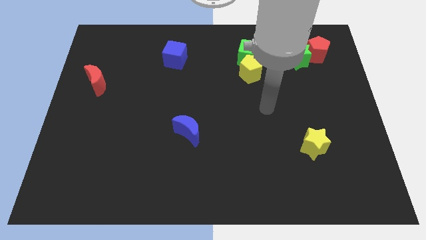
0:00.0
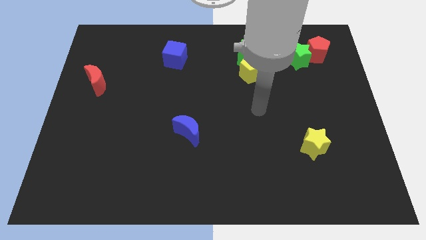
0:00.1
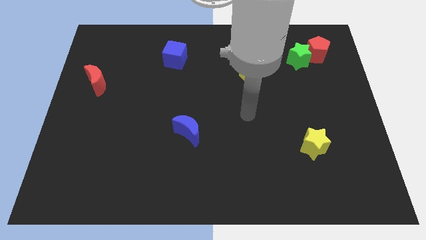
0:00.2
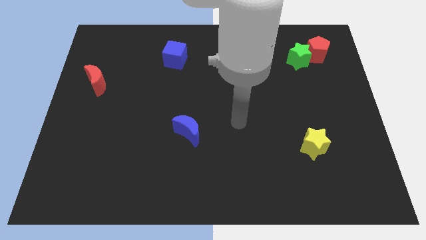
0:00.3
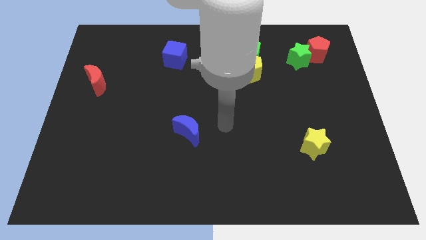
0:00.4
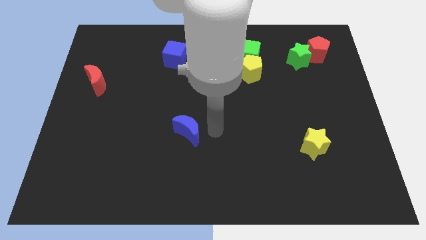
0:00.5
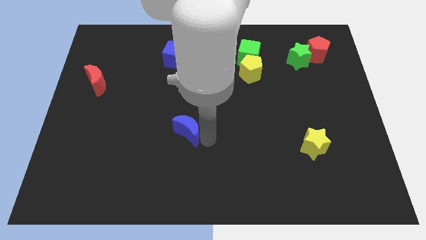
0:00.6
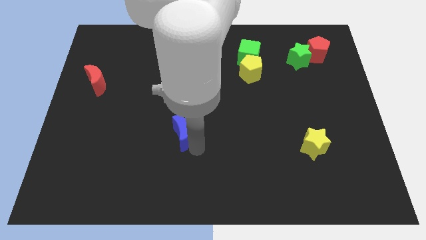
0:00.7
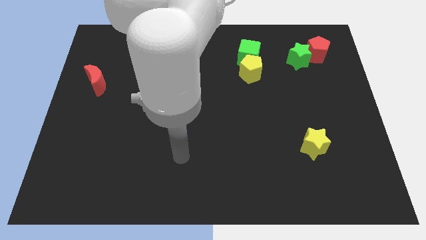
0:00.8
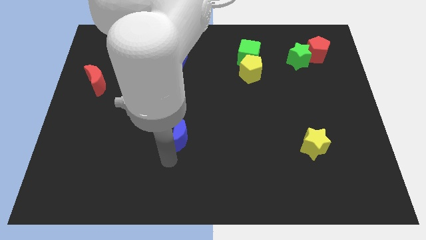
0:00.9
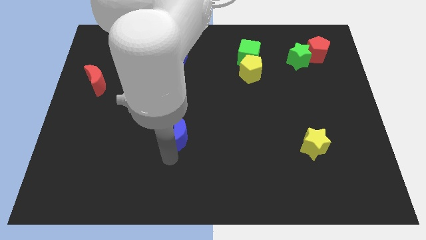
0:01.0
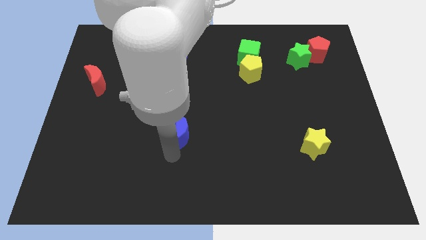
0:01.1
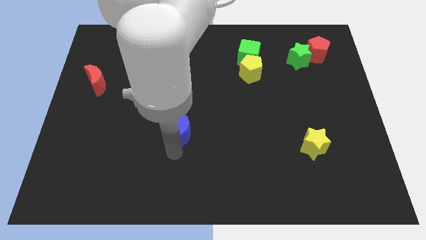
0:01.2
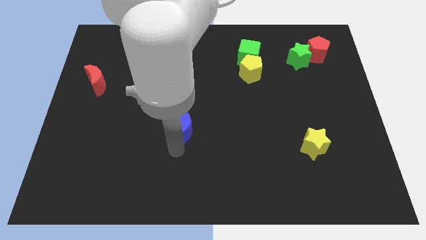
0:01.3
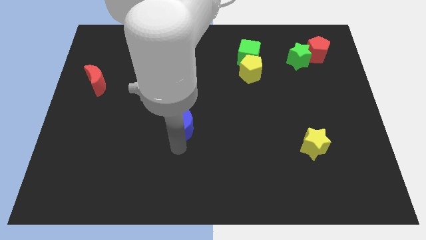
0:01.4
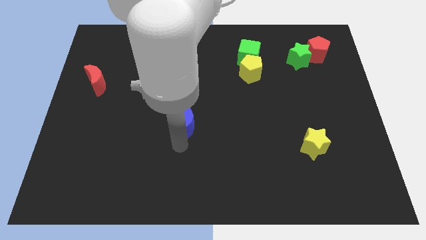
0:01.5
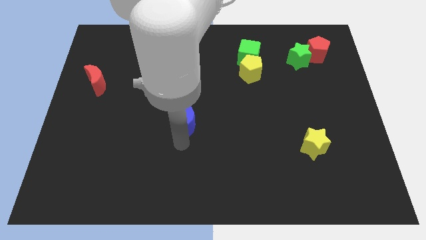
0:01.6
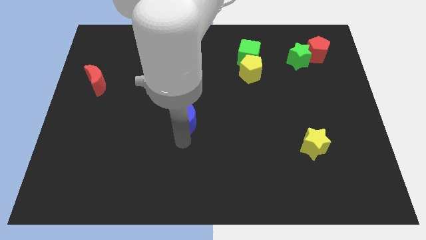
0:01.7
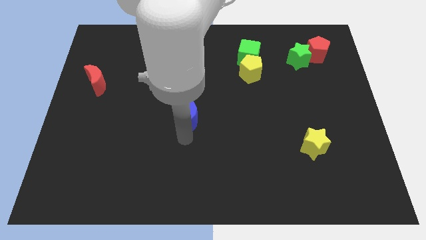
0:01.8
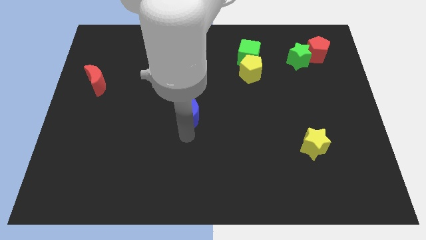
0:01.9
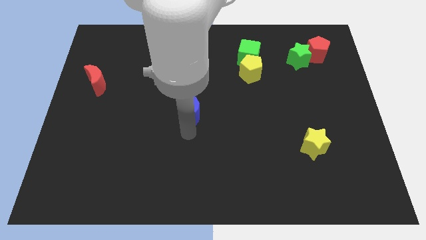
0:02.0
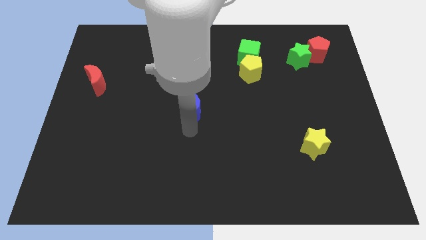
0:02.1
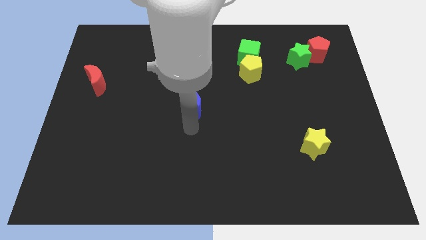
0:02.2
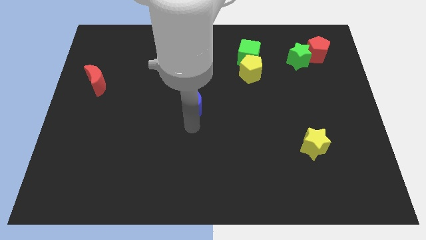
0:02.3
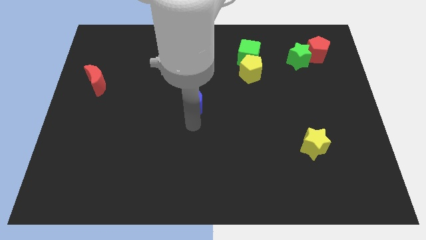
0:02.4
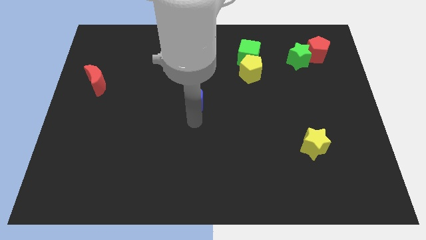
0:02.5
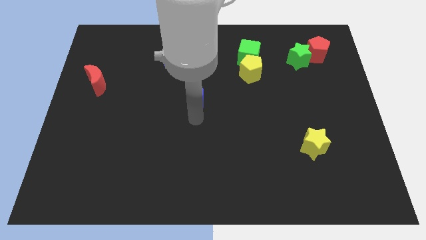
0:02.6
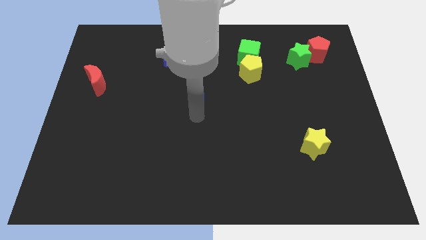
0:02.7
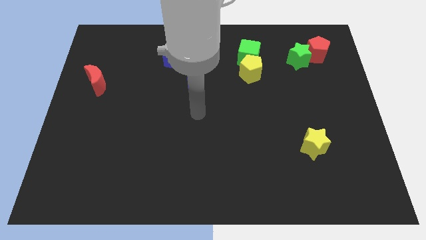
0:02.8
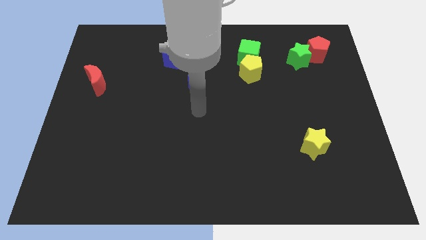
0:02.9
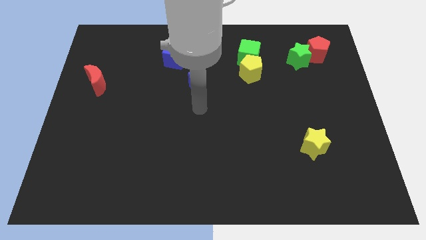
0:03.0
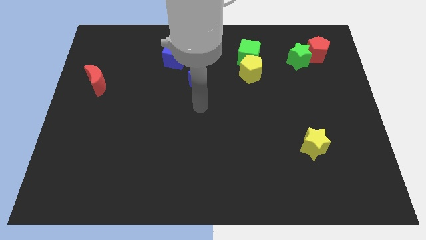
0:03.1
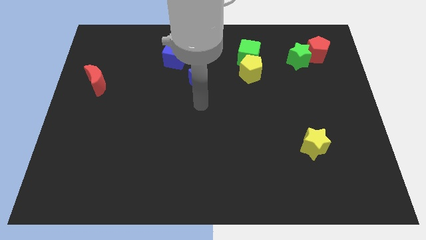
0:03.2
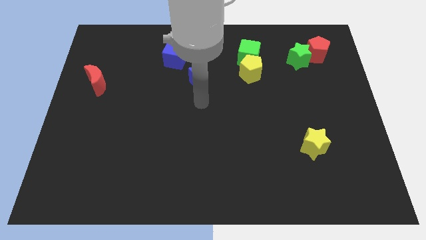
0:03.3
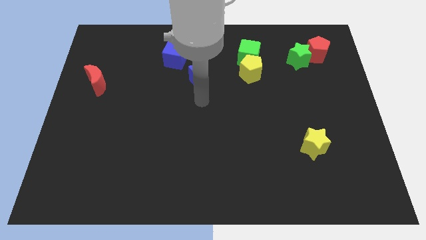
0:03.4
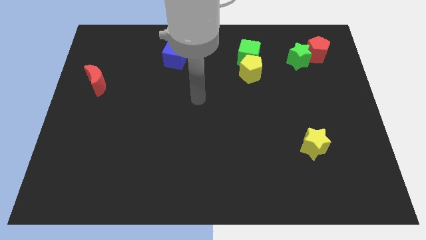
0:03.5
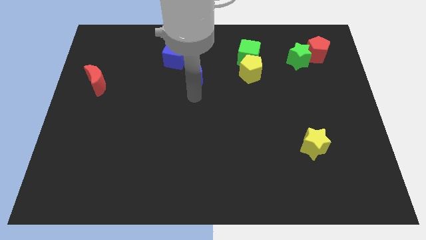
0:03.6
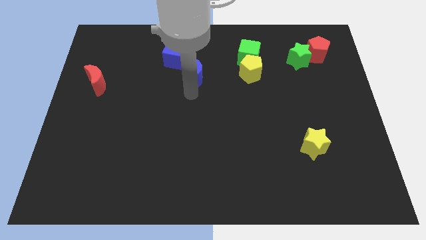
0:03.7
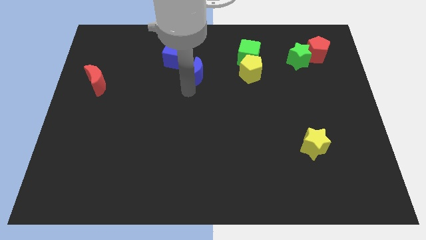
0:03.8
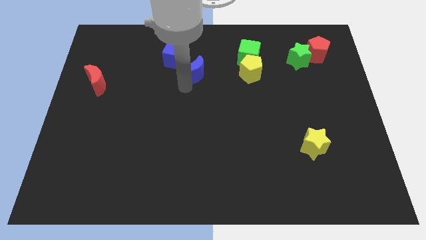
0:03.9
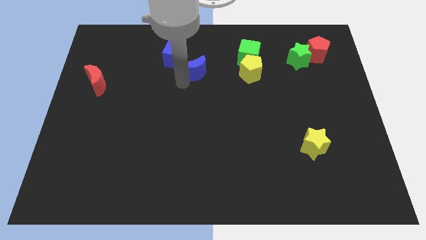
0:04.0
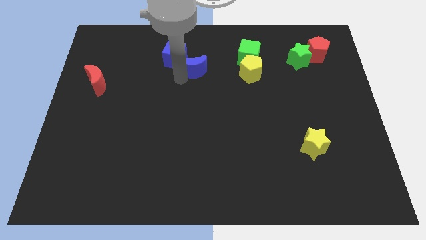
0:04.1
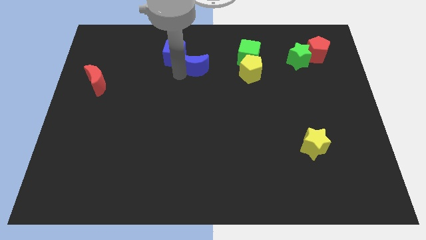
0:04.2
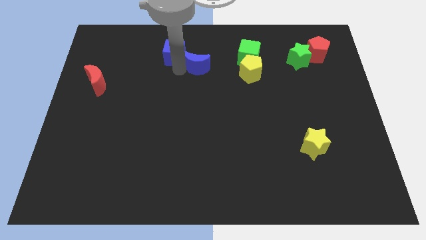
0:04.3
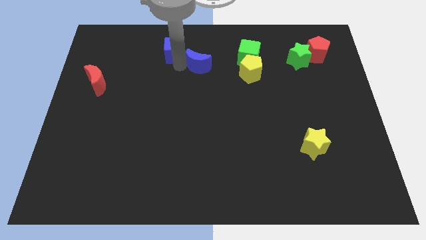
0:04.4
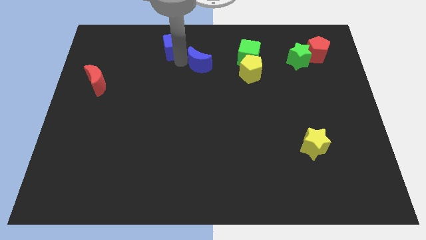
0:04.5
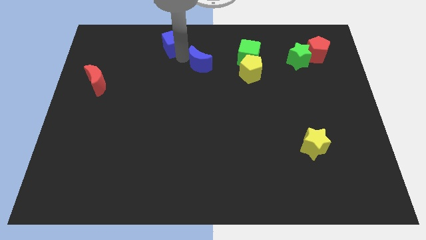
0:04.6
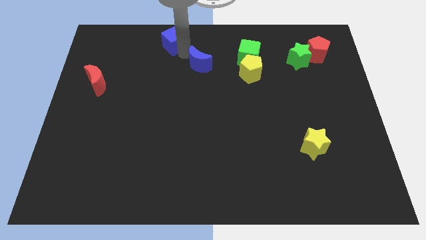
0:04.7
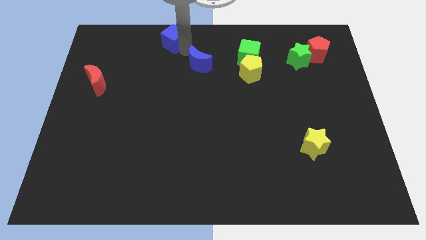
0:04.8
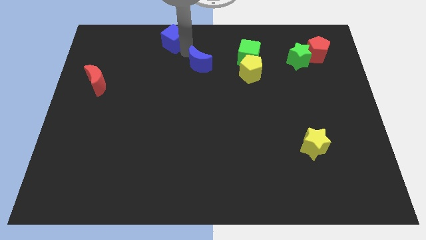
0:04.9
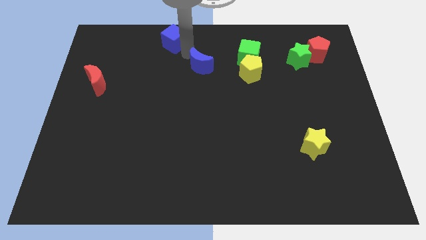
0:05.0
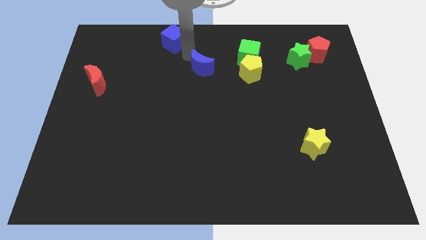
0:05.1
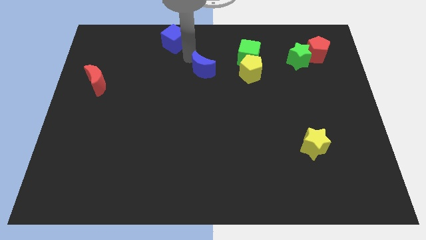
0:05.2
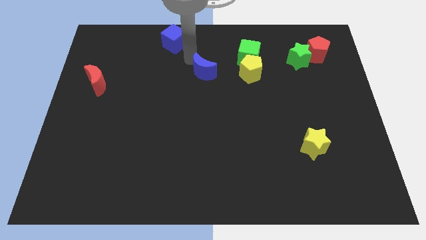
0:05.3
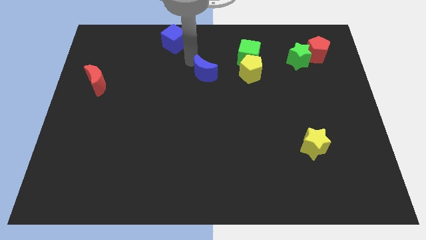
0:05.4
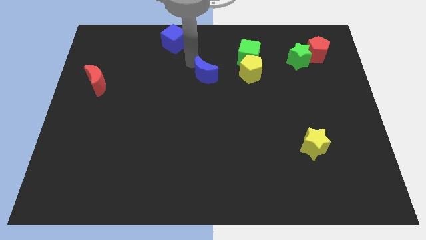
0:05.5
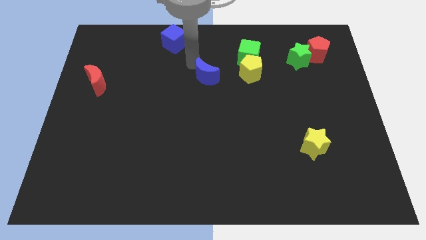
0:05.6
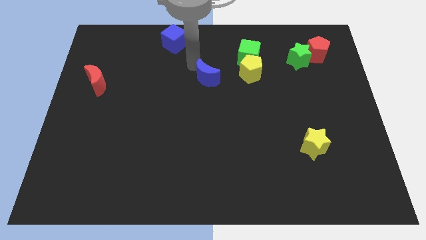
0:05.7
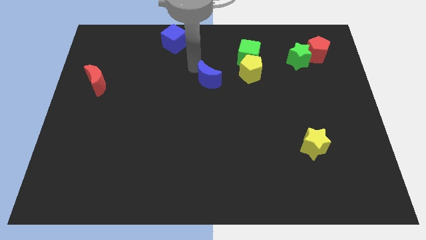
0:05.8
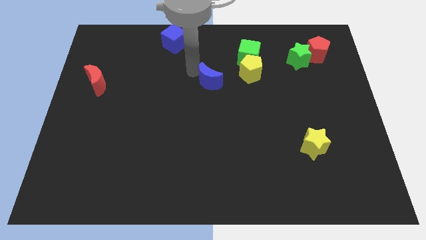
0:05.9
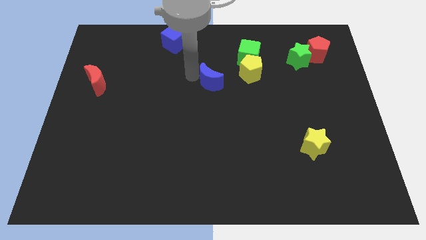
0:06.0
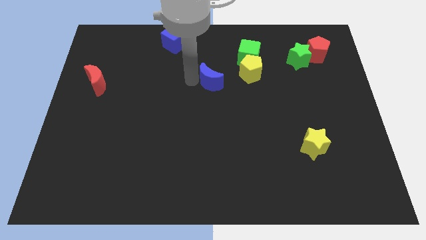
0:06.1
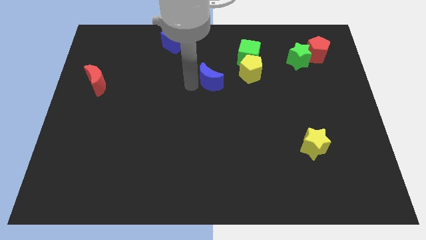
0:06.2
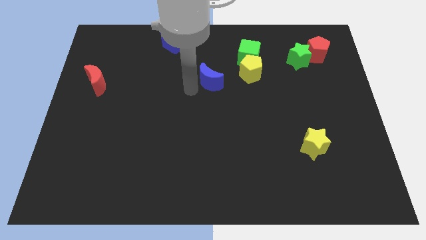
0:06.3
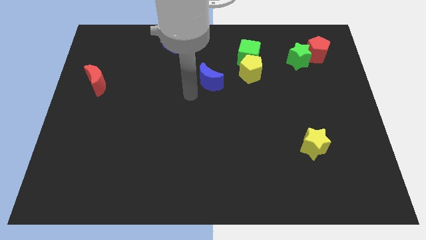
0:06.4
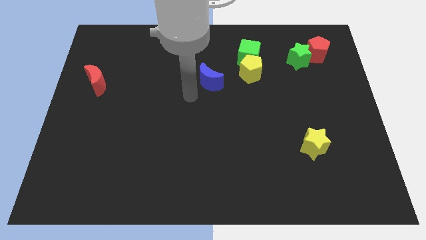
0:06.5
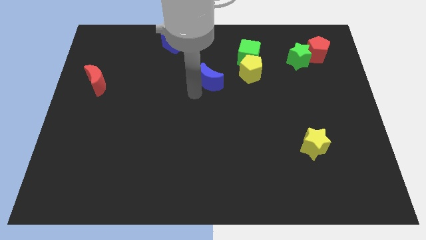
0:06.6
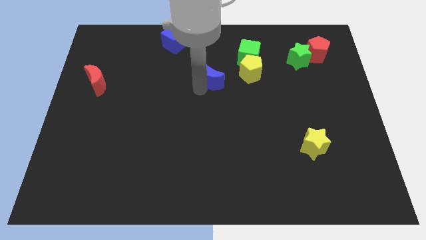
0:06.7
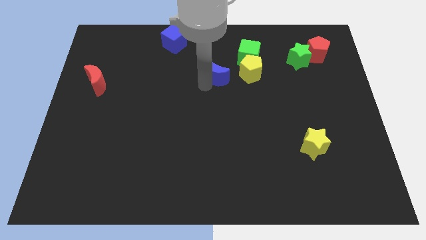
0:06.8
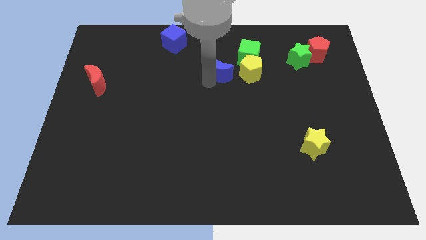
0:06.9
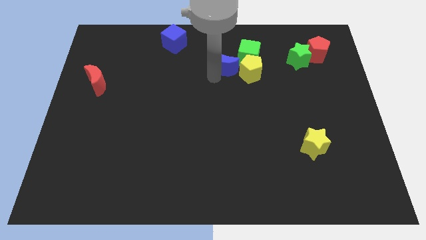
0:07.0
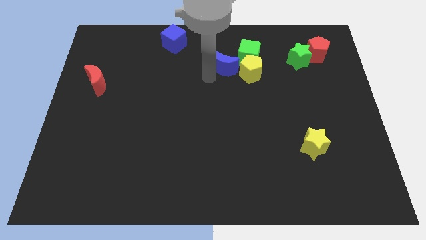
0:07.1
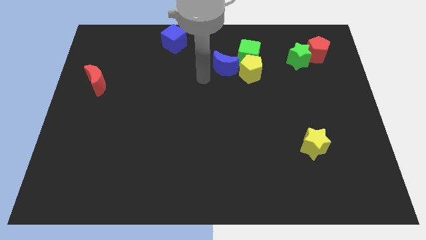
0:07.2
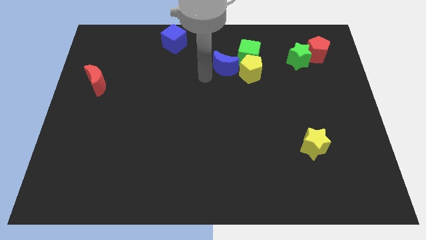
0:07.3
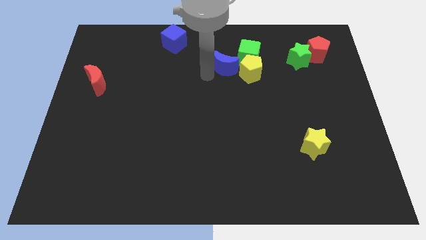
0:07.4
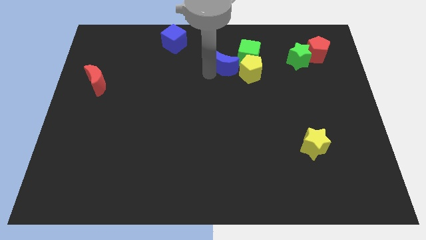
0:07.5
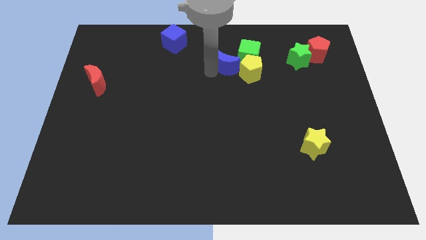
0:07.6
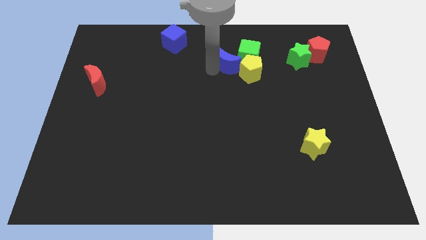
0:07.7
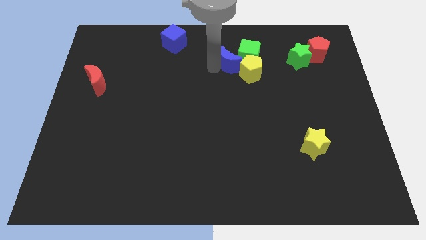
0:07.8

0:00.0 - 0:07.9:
put the blue moon towards the green cube

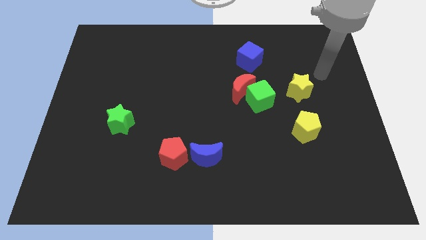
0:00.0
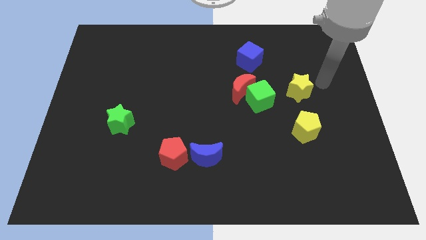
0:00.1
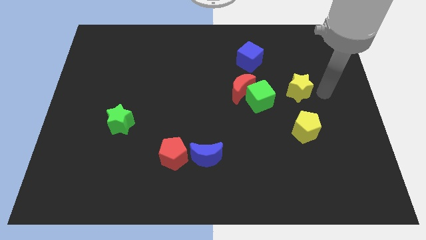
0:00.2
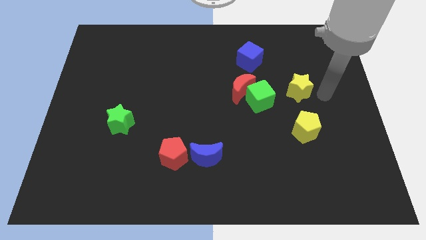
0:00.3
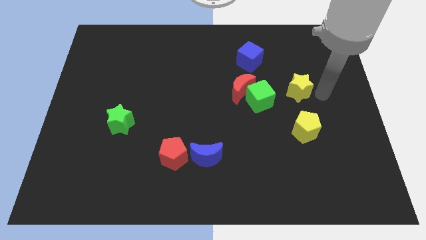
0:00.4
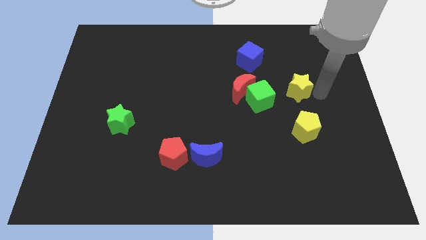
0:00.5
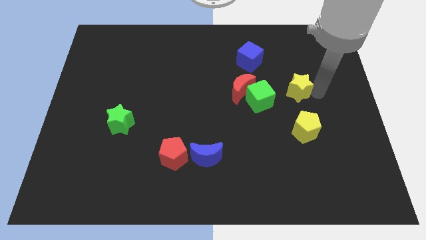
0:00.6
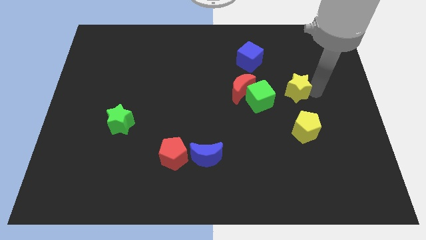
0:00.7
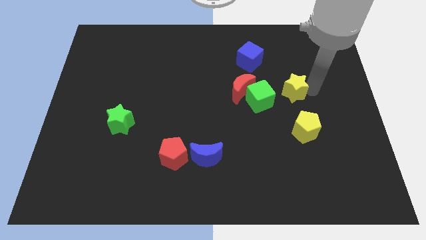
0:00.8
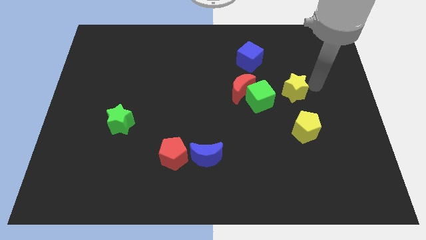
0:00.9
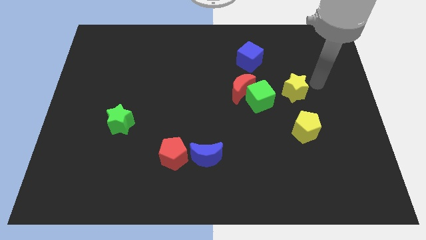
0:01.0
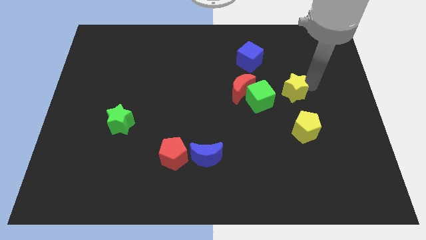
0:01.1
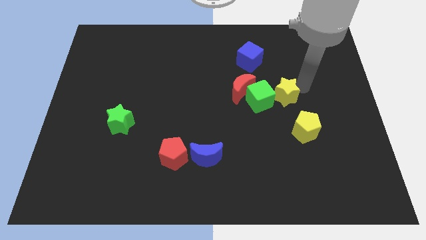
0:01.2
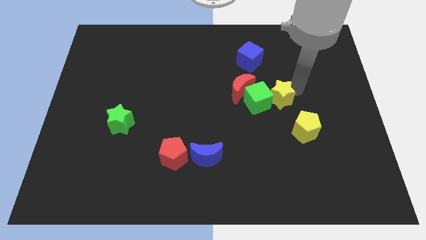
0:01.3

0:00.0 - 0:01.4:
move the yellow star close to the green cube
